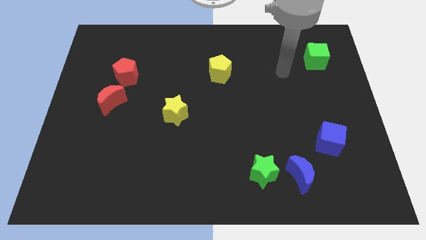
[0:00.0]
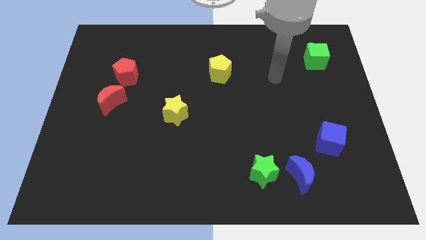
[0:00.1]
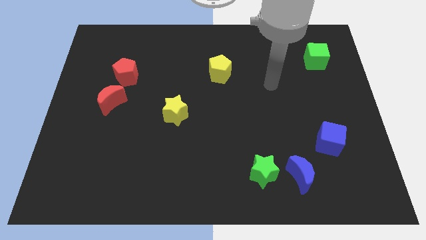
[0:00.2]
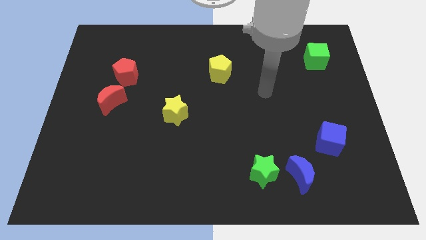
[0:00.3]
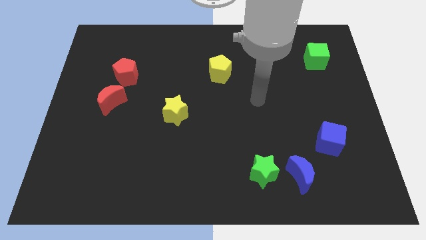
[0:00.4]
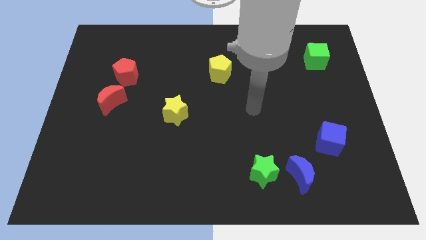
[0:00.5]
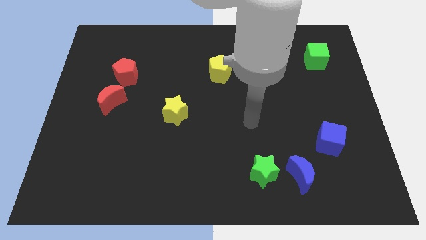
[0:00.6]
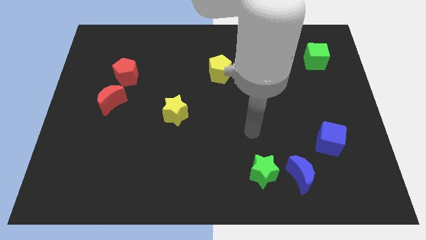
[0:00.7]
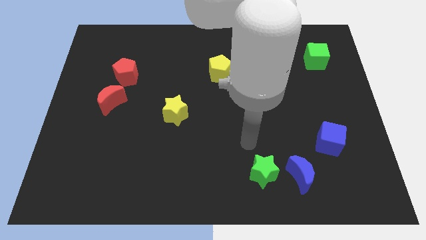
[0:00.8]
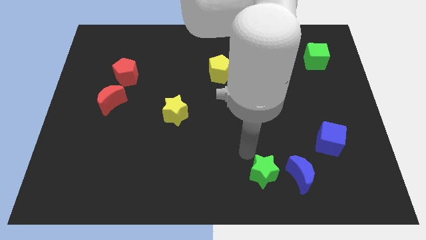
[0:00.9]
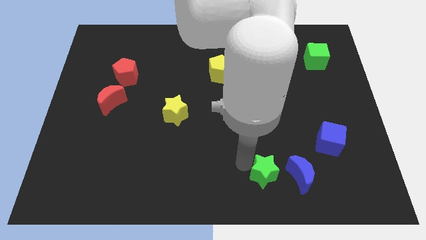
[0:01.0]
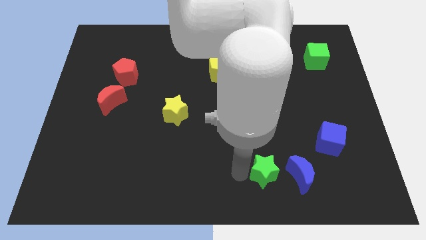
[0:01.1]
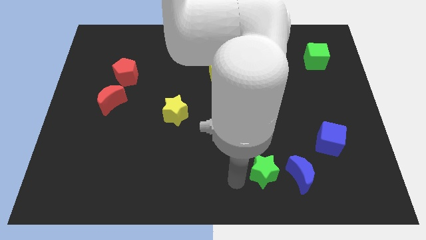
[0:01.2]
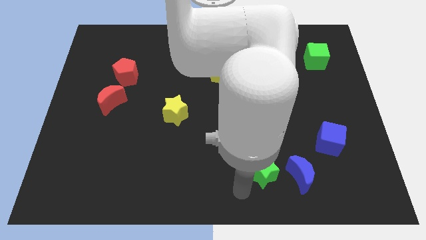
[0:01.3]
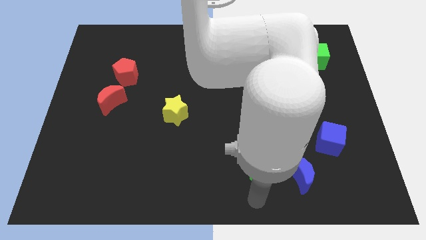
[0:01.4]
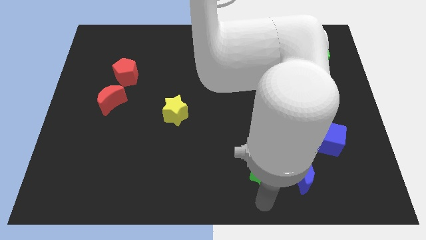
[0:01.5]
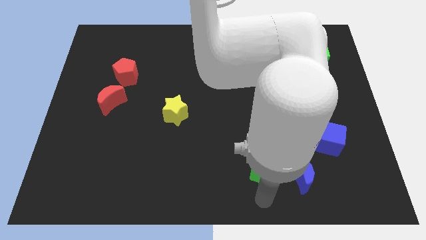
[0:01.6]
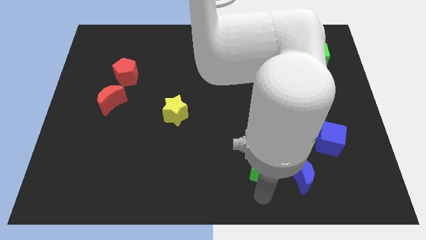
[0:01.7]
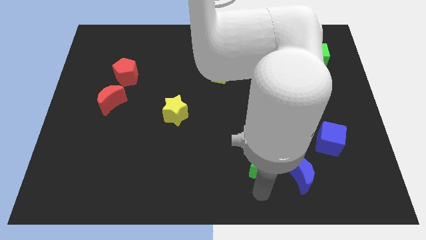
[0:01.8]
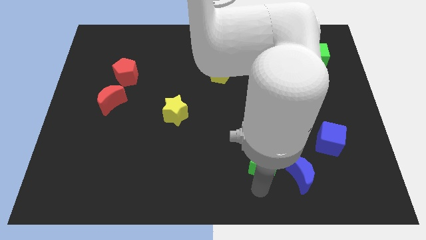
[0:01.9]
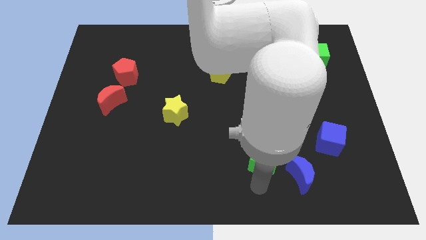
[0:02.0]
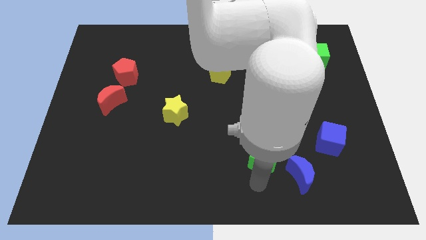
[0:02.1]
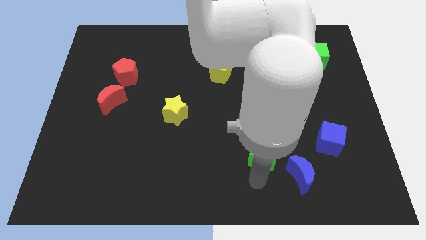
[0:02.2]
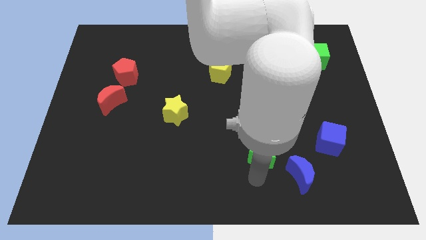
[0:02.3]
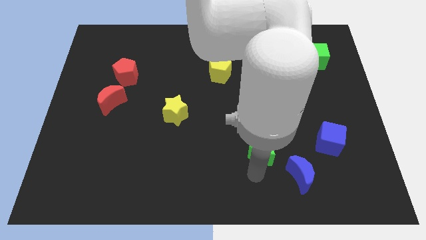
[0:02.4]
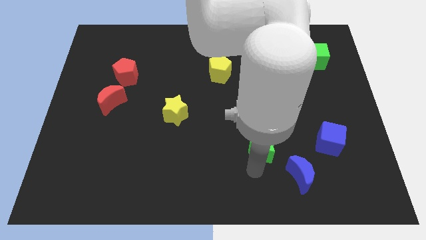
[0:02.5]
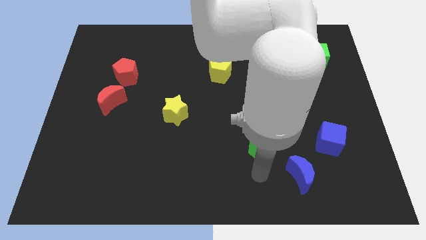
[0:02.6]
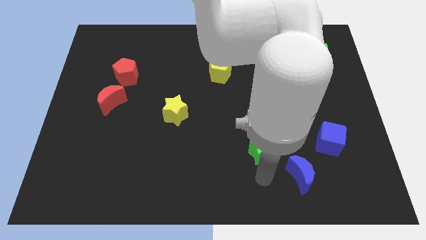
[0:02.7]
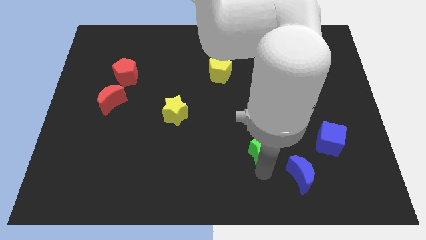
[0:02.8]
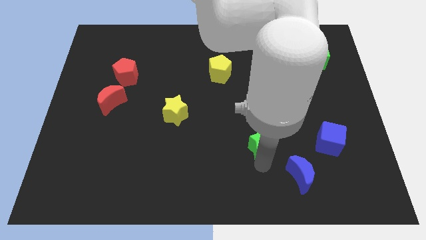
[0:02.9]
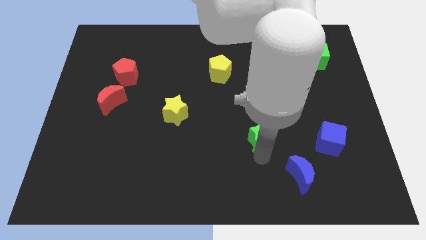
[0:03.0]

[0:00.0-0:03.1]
push the green star up a little

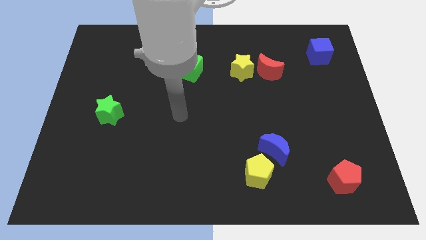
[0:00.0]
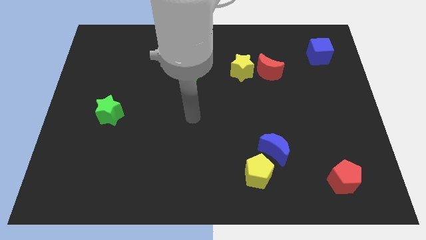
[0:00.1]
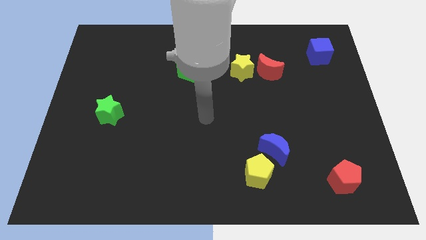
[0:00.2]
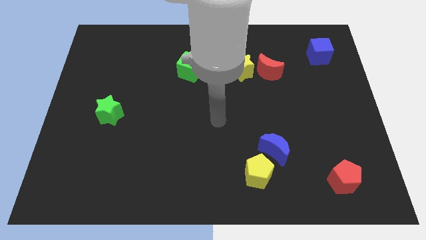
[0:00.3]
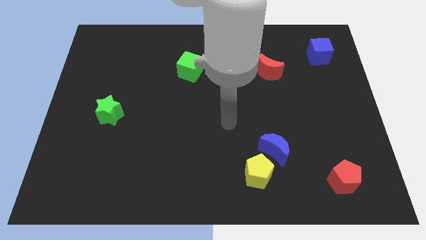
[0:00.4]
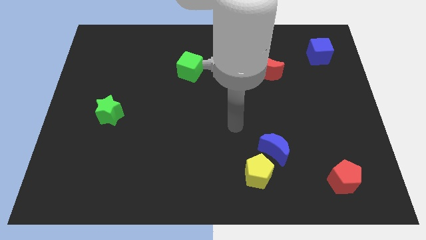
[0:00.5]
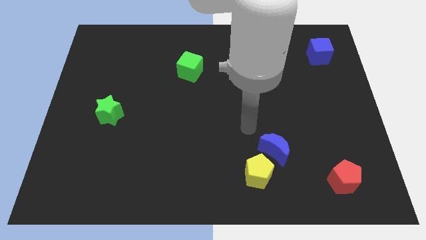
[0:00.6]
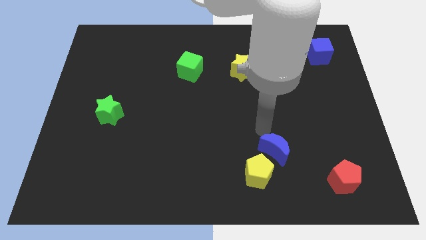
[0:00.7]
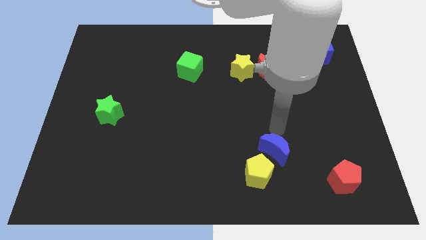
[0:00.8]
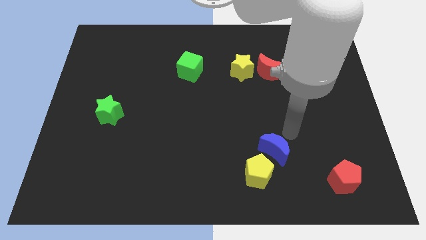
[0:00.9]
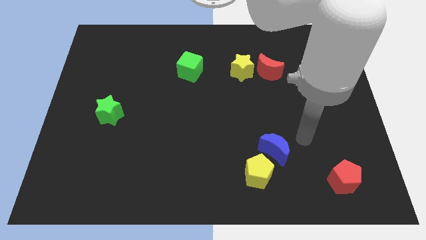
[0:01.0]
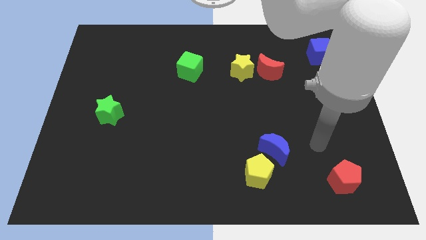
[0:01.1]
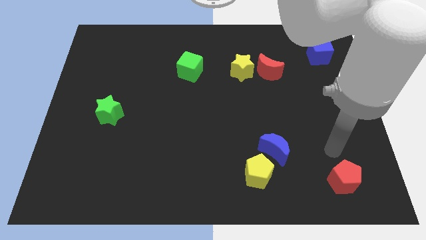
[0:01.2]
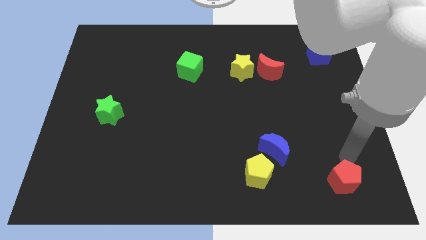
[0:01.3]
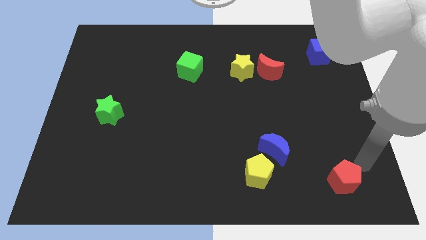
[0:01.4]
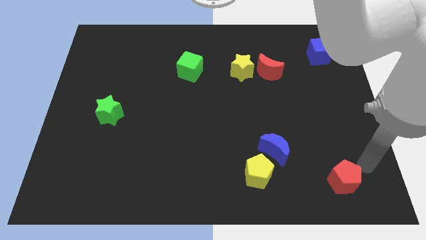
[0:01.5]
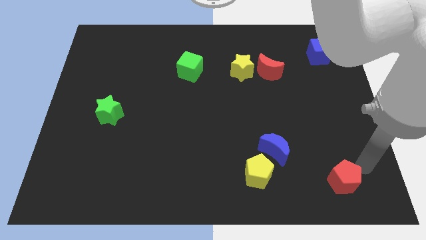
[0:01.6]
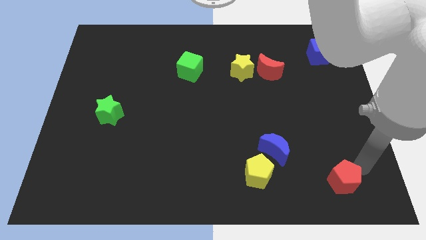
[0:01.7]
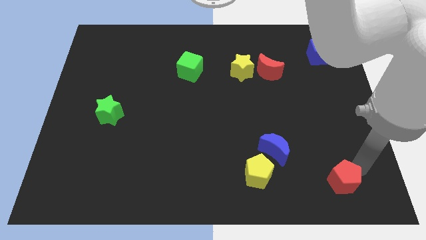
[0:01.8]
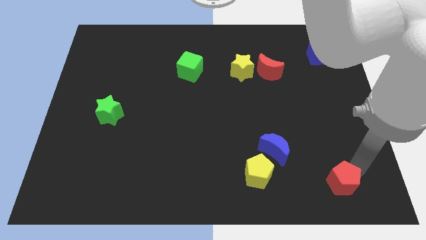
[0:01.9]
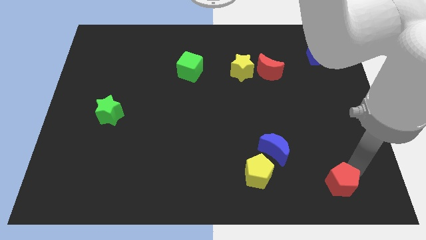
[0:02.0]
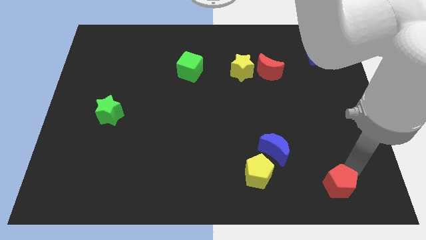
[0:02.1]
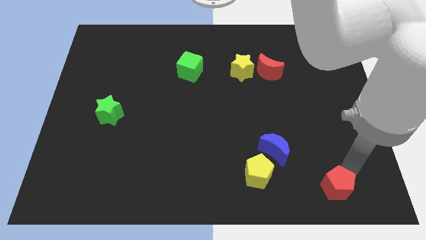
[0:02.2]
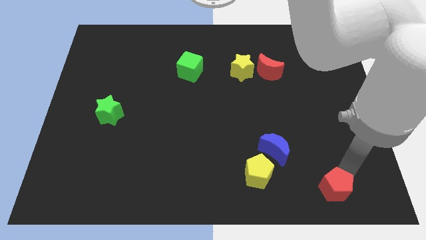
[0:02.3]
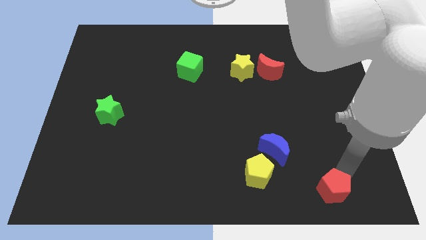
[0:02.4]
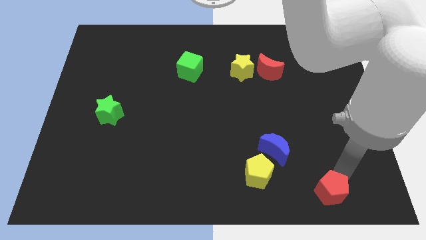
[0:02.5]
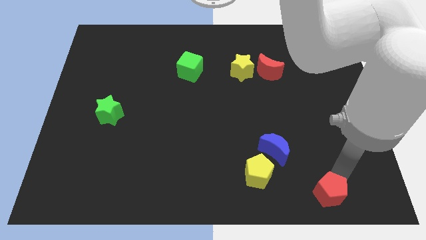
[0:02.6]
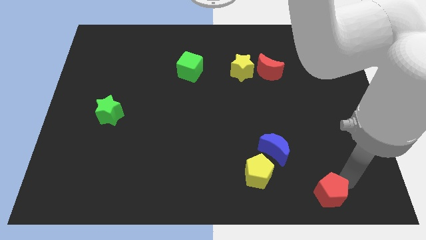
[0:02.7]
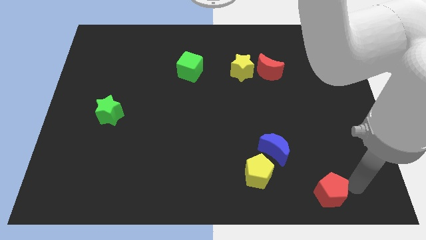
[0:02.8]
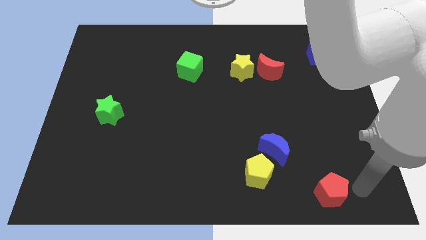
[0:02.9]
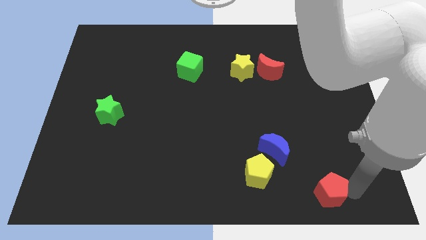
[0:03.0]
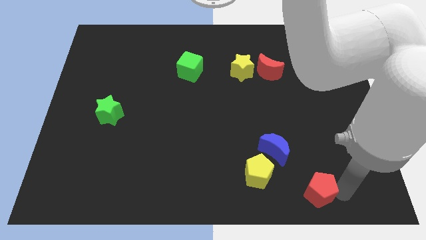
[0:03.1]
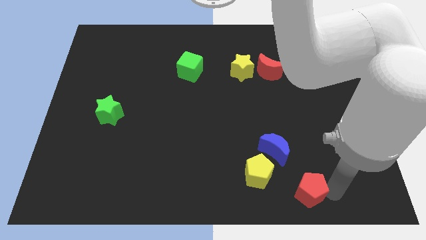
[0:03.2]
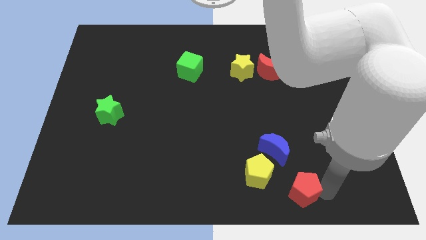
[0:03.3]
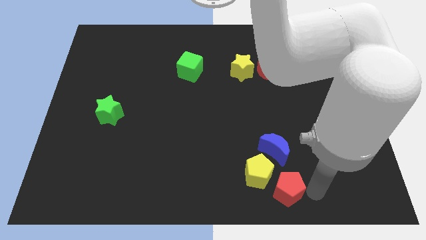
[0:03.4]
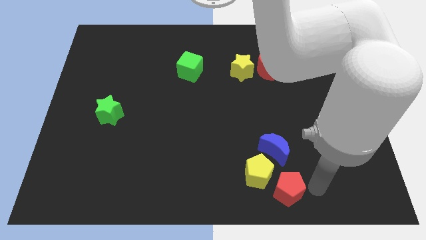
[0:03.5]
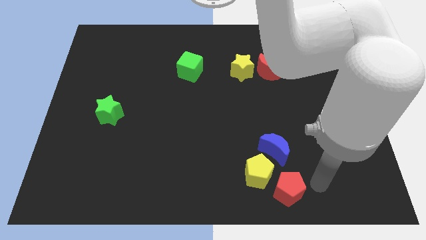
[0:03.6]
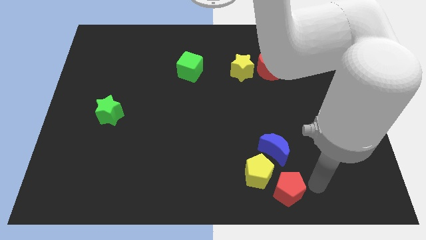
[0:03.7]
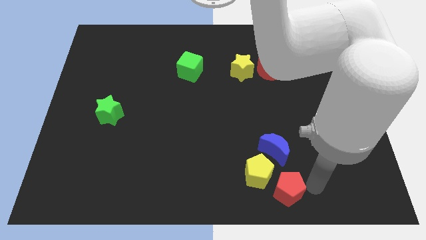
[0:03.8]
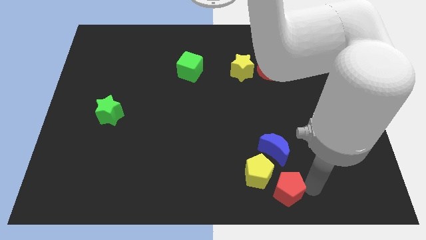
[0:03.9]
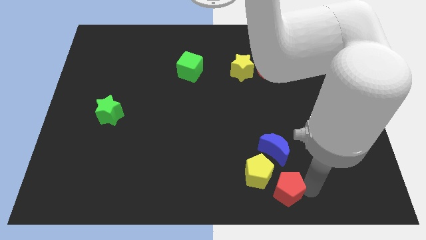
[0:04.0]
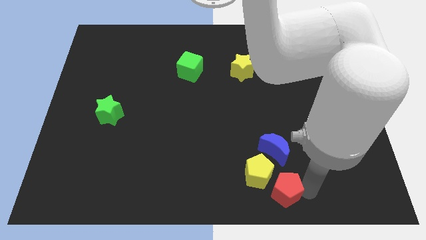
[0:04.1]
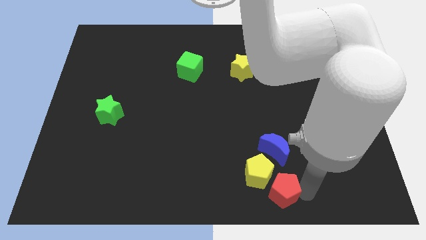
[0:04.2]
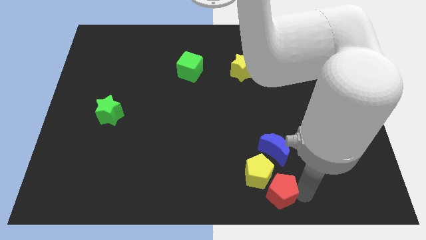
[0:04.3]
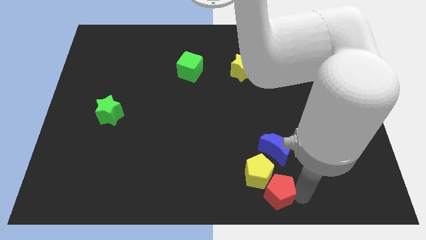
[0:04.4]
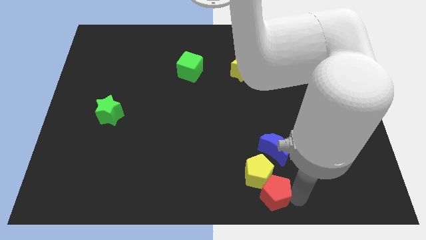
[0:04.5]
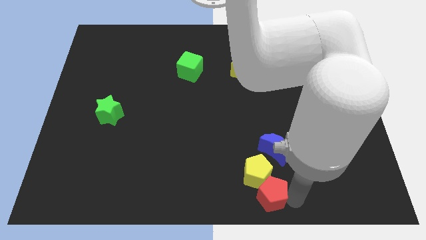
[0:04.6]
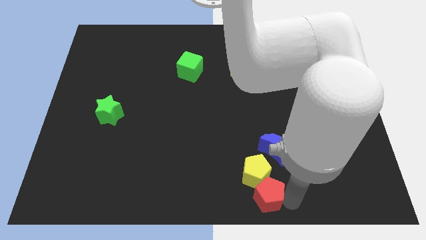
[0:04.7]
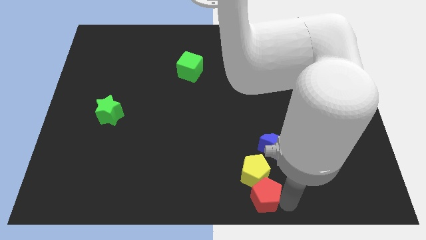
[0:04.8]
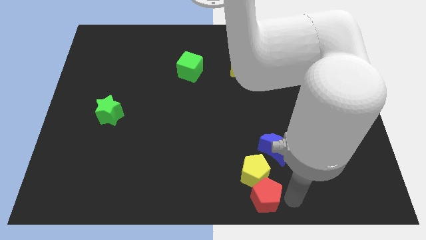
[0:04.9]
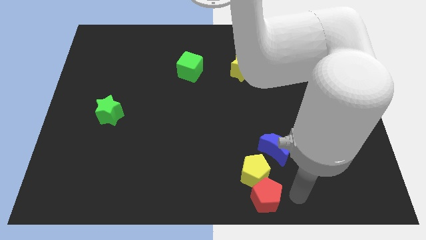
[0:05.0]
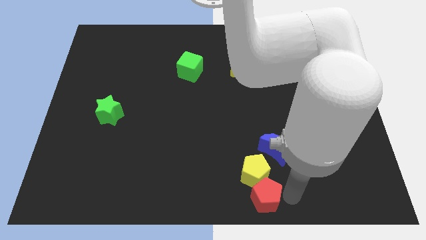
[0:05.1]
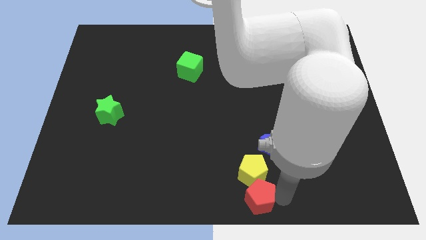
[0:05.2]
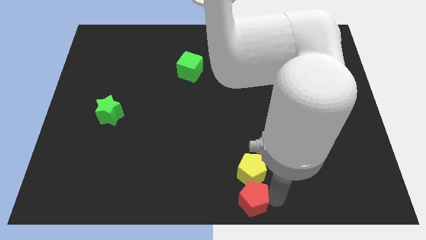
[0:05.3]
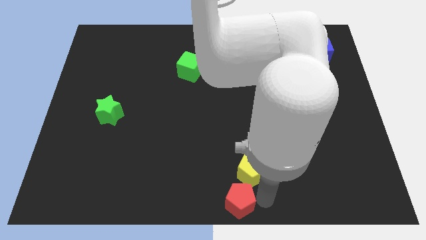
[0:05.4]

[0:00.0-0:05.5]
slide the red pentagon to the left
